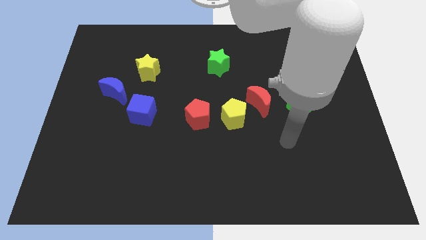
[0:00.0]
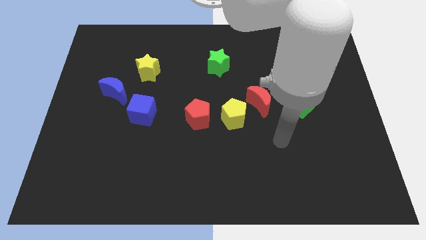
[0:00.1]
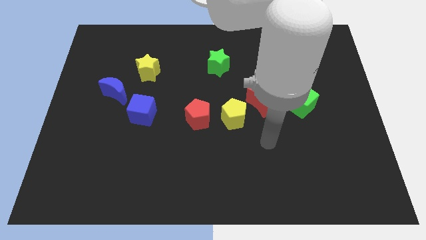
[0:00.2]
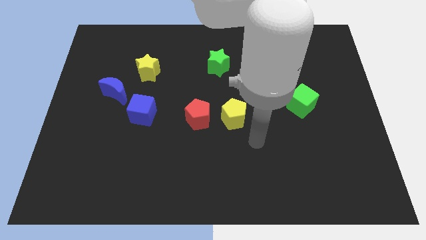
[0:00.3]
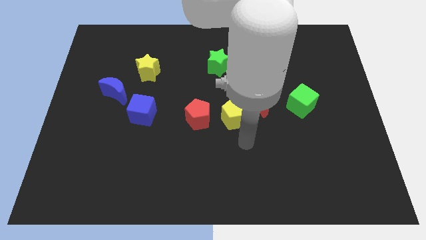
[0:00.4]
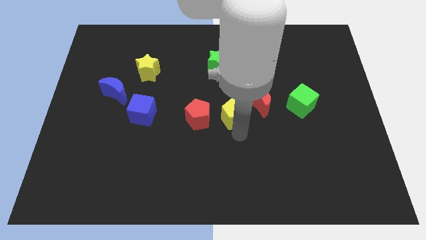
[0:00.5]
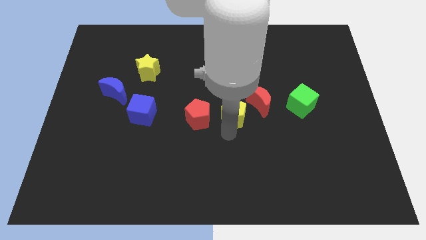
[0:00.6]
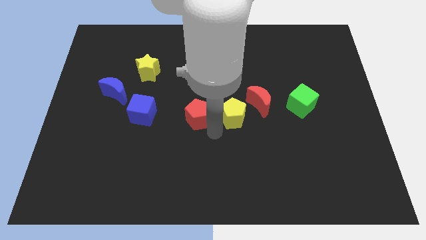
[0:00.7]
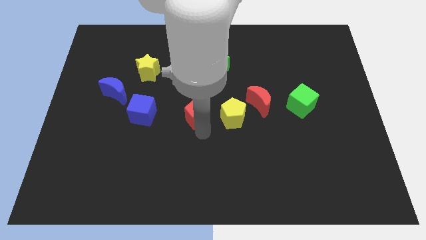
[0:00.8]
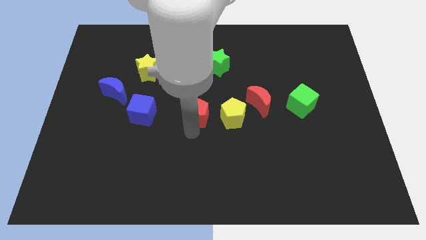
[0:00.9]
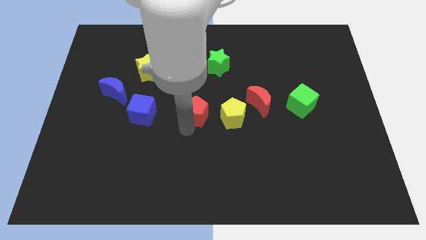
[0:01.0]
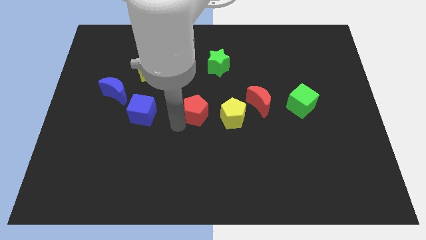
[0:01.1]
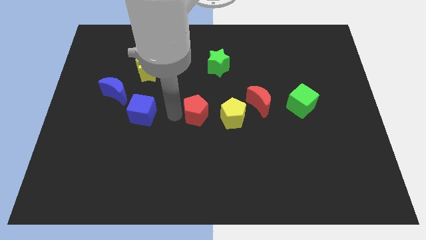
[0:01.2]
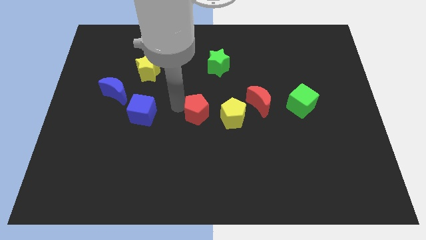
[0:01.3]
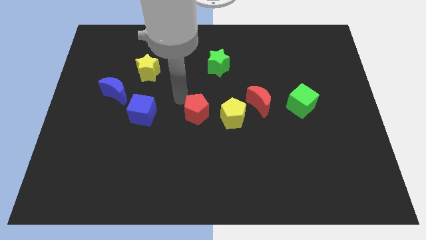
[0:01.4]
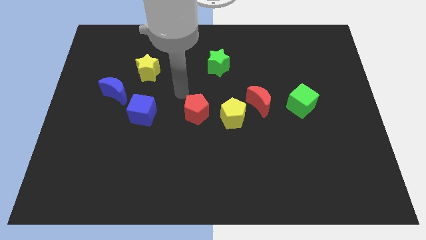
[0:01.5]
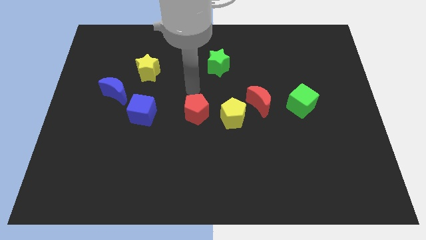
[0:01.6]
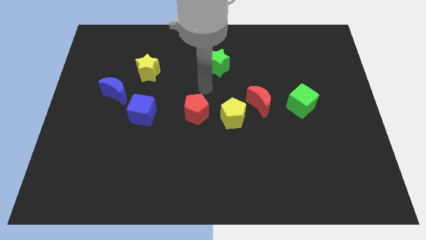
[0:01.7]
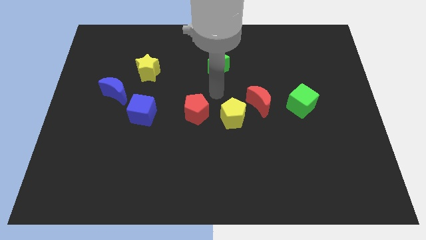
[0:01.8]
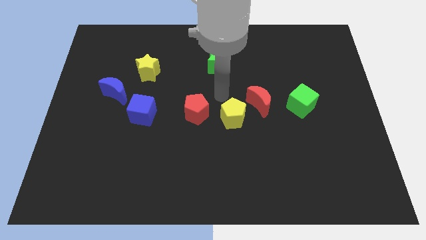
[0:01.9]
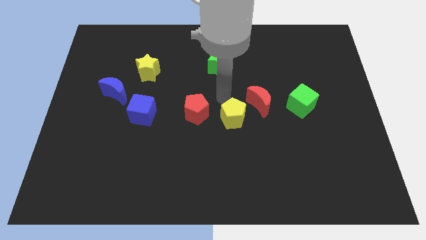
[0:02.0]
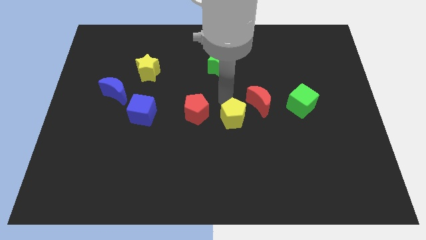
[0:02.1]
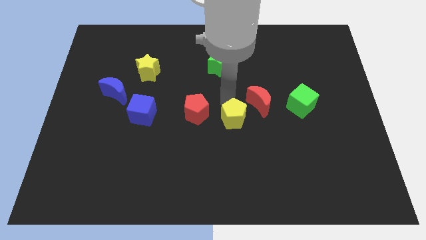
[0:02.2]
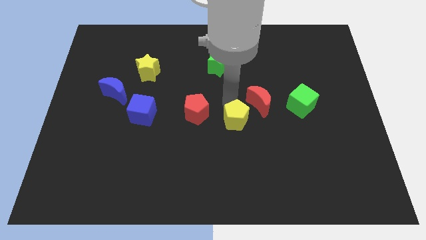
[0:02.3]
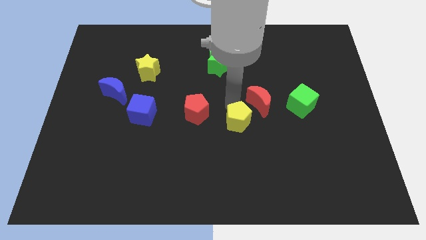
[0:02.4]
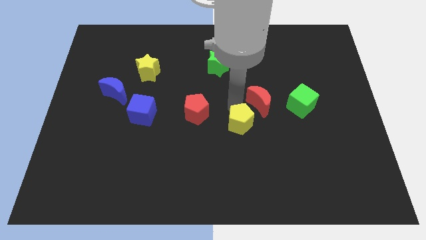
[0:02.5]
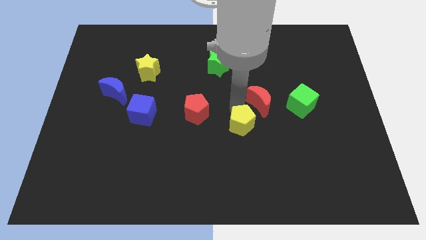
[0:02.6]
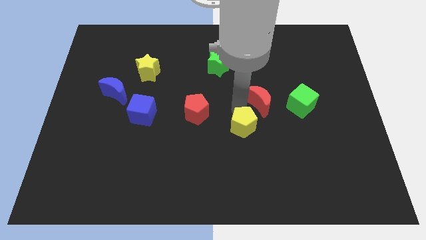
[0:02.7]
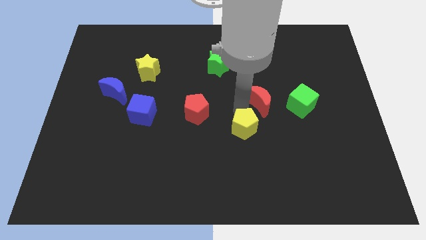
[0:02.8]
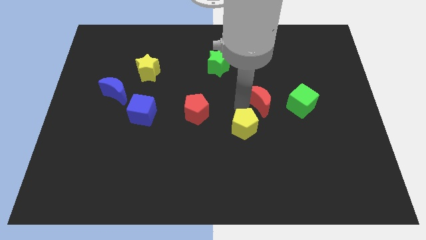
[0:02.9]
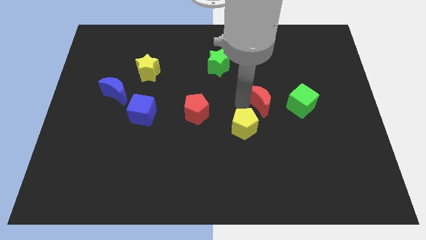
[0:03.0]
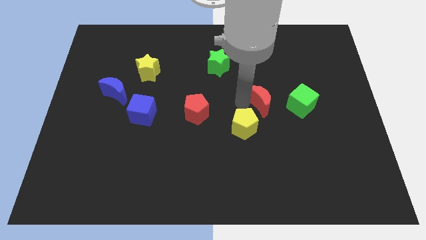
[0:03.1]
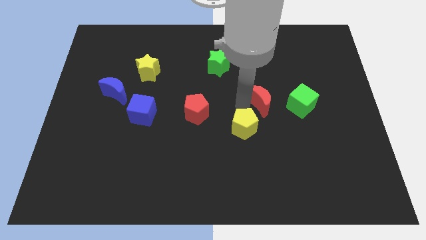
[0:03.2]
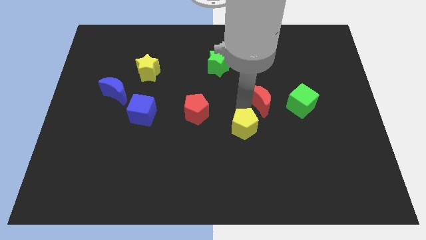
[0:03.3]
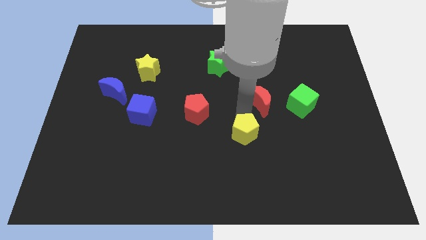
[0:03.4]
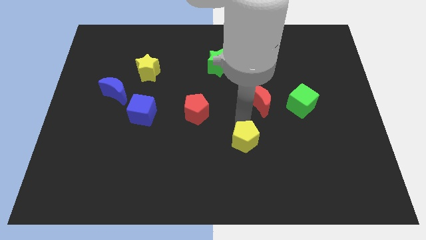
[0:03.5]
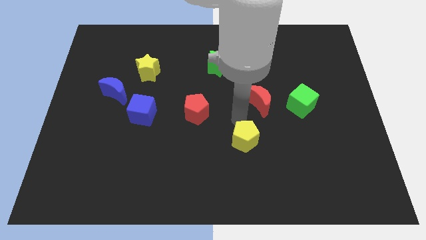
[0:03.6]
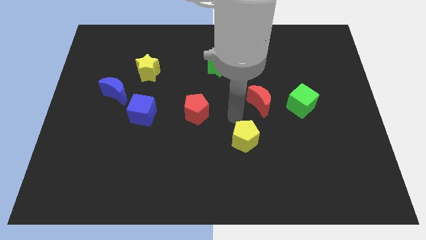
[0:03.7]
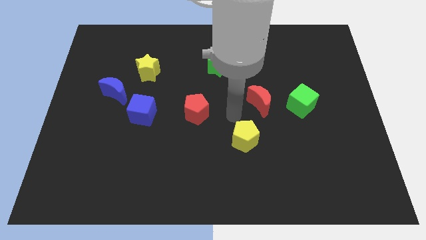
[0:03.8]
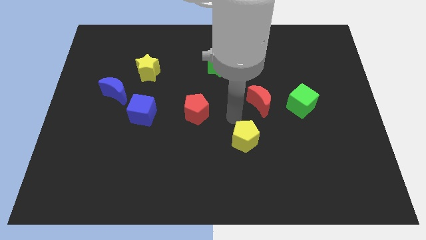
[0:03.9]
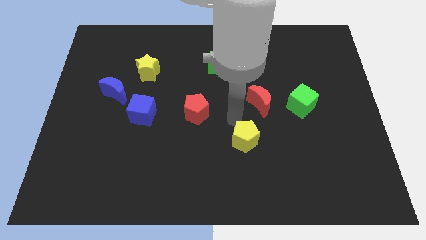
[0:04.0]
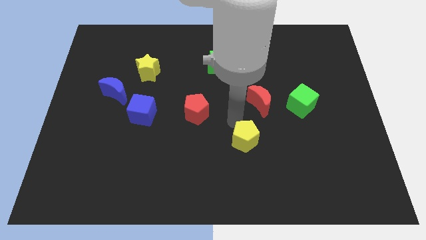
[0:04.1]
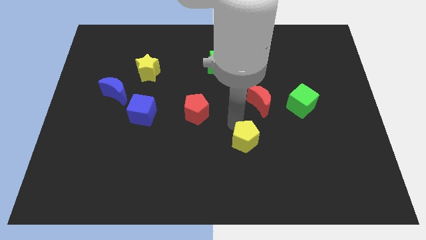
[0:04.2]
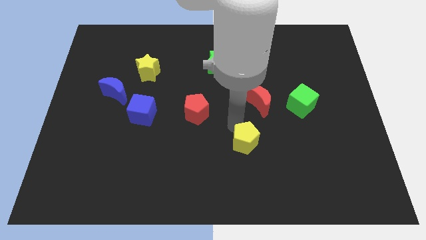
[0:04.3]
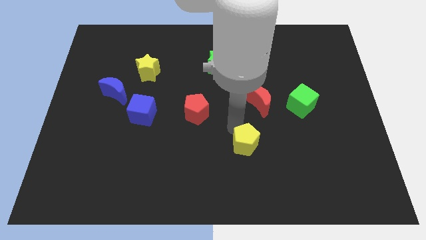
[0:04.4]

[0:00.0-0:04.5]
separate the yellow pentagon from the red moon and red pentagon

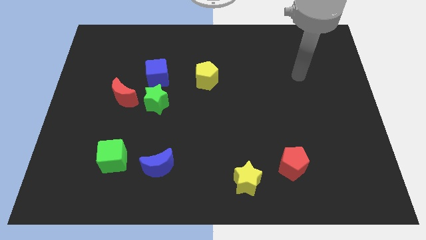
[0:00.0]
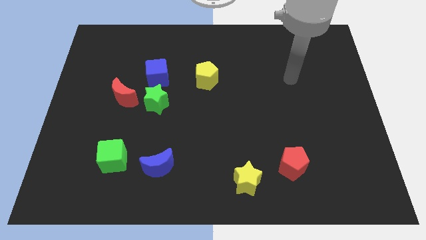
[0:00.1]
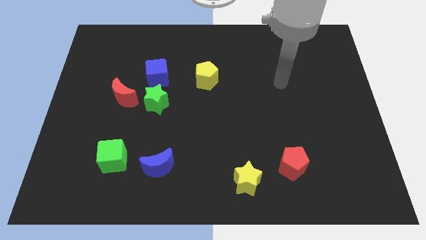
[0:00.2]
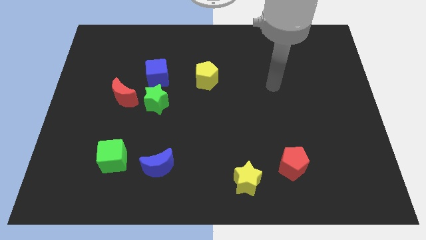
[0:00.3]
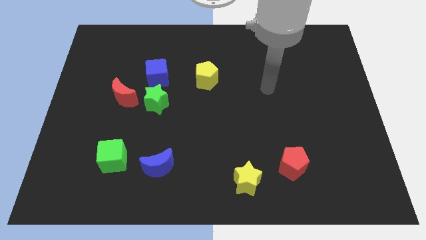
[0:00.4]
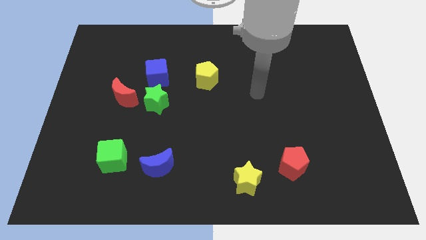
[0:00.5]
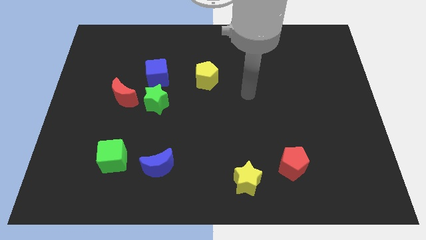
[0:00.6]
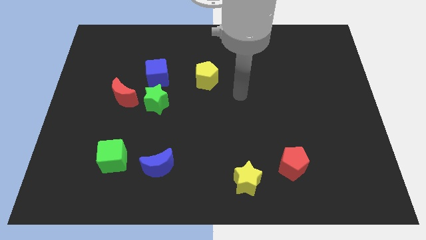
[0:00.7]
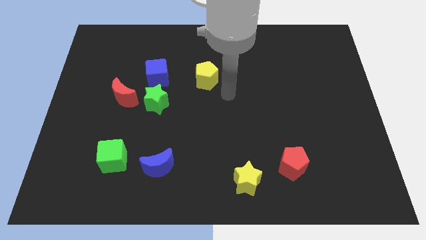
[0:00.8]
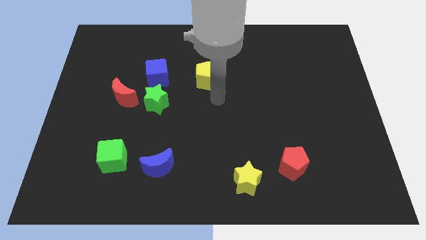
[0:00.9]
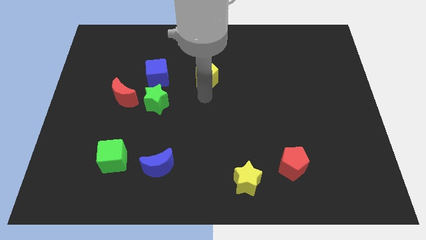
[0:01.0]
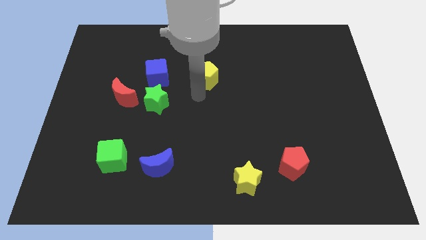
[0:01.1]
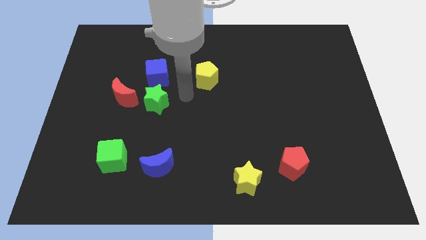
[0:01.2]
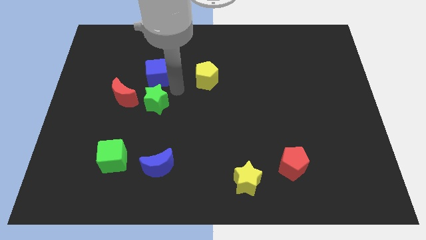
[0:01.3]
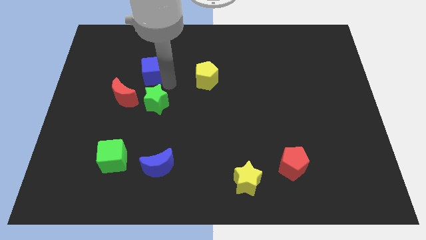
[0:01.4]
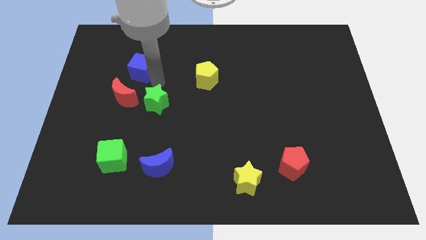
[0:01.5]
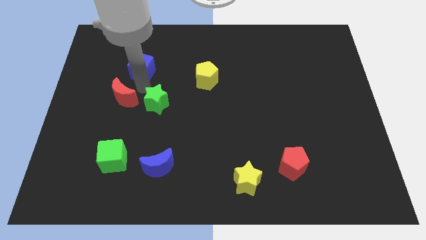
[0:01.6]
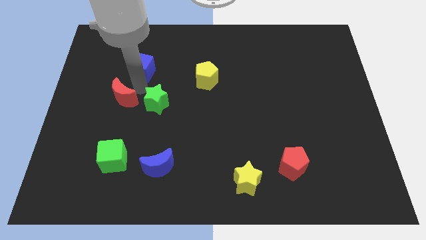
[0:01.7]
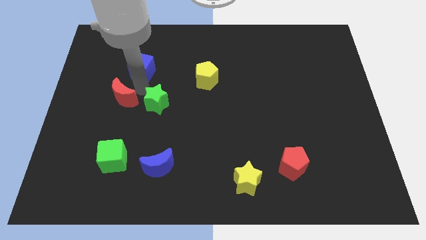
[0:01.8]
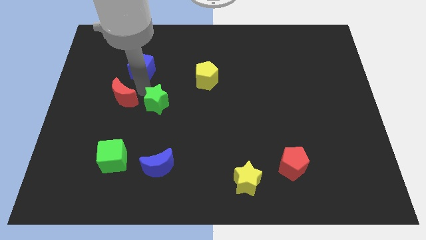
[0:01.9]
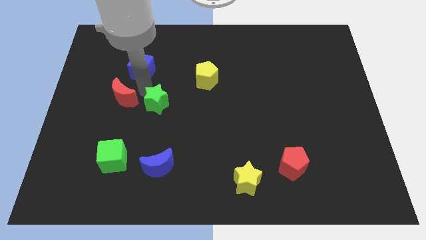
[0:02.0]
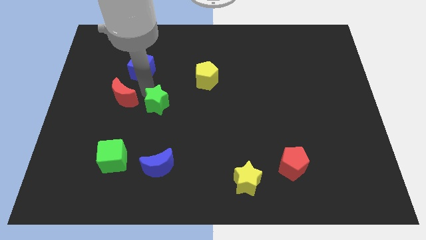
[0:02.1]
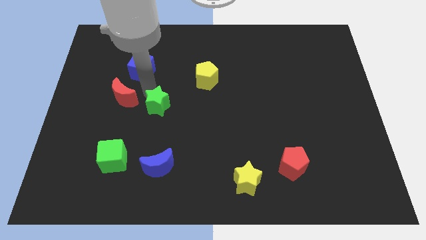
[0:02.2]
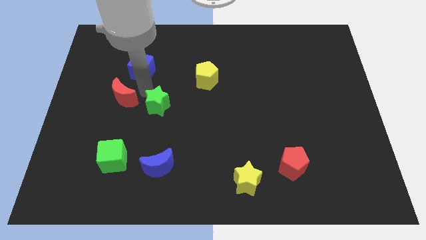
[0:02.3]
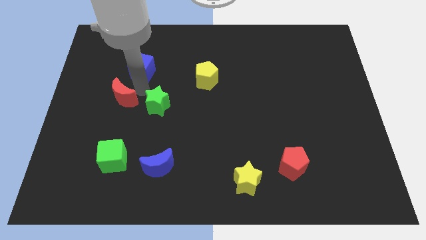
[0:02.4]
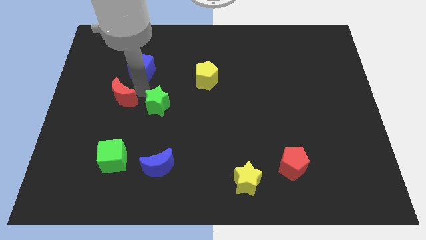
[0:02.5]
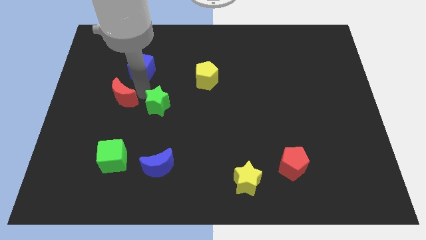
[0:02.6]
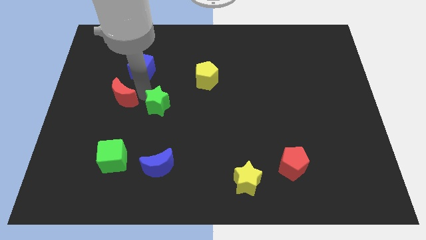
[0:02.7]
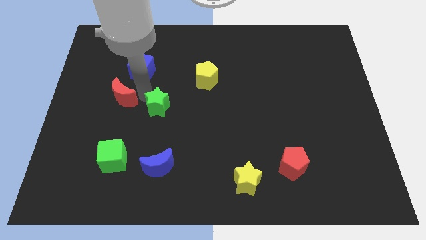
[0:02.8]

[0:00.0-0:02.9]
separate the green star from the blue cube and red moon

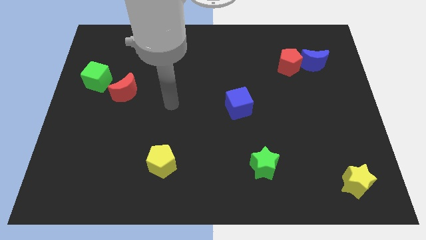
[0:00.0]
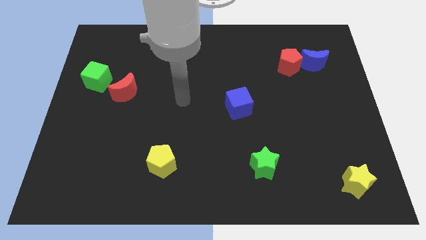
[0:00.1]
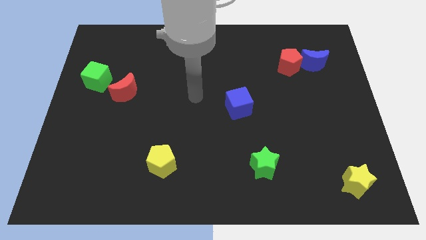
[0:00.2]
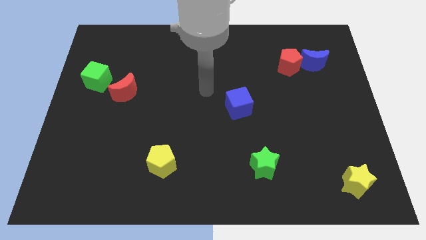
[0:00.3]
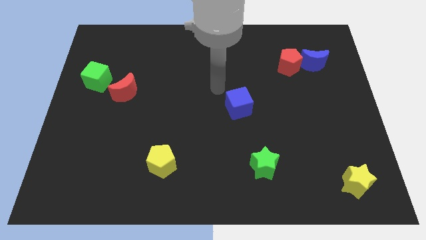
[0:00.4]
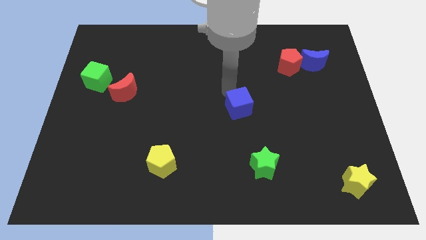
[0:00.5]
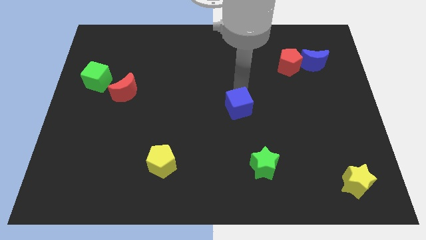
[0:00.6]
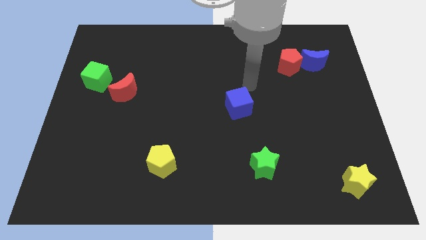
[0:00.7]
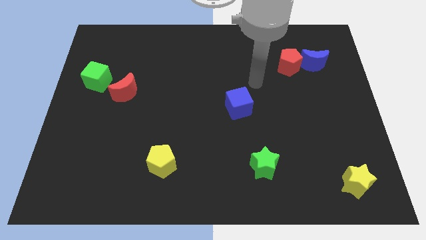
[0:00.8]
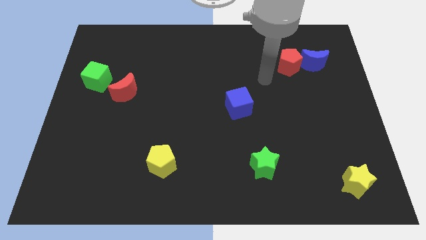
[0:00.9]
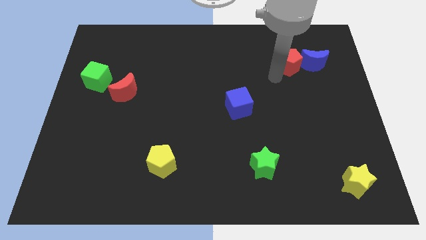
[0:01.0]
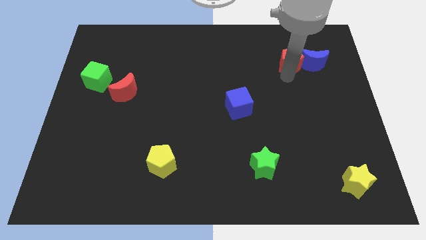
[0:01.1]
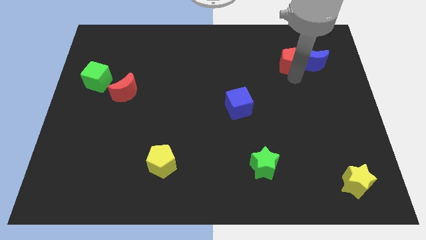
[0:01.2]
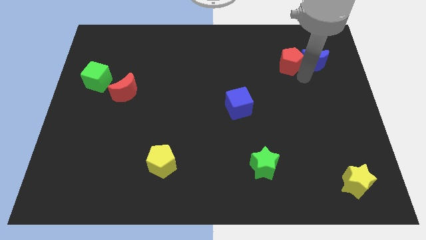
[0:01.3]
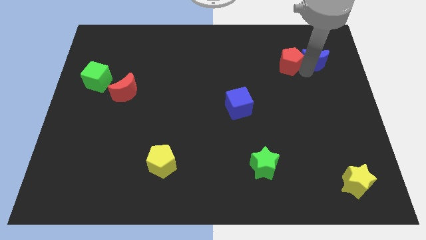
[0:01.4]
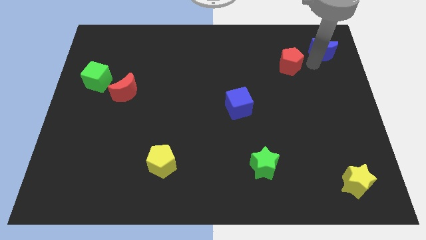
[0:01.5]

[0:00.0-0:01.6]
separate the red pentagon from the blue moon

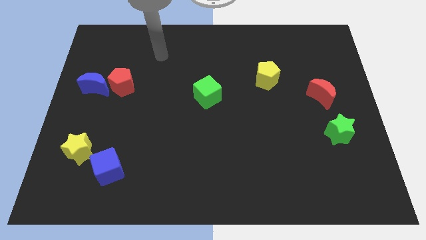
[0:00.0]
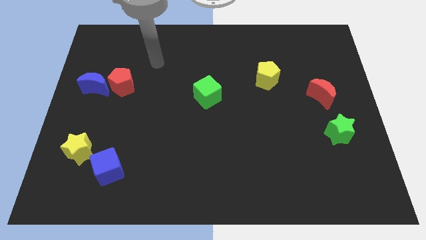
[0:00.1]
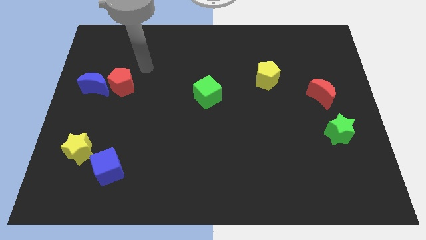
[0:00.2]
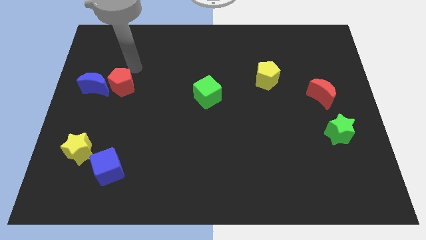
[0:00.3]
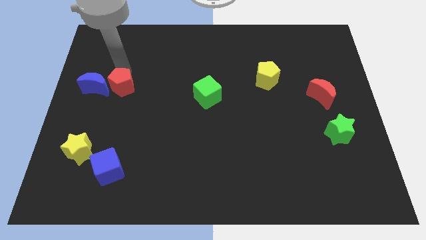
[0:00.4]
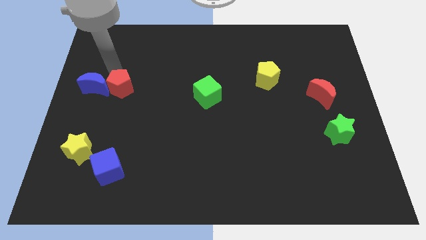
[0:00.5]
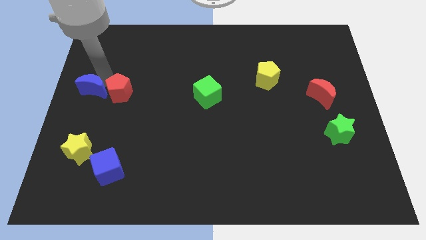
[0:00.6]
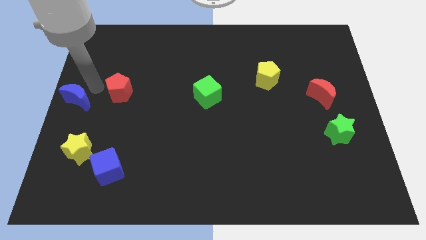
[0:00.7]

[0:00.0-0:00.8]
move the red pentagon away from the blue moon
